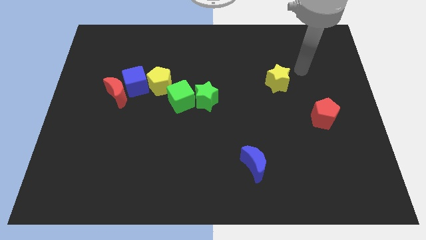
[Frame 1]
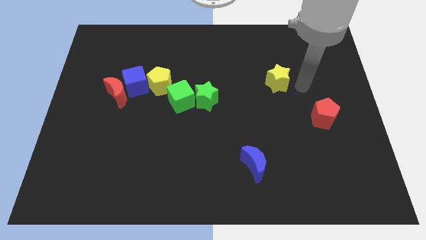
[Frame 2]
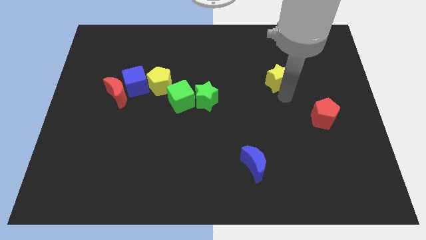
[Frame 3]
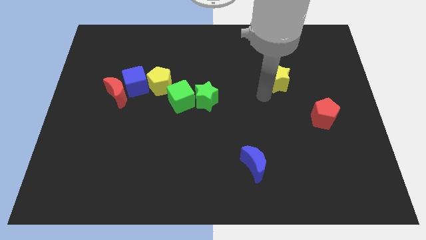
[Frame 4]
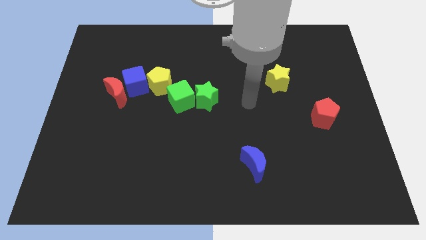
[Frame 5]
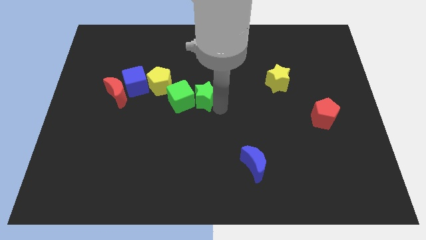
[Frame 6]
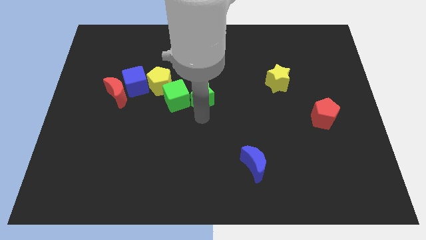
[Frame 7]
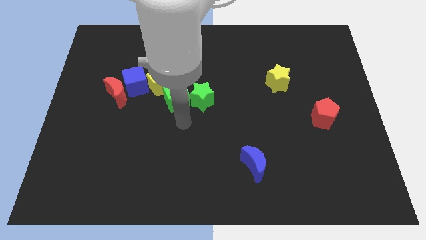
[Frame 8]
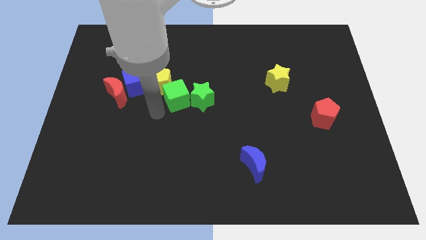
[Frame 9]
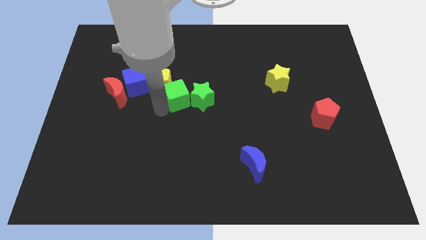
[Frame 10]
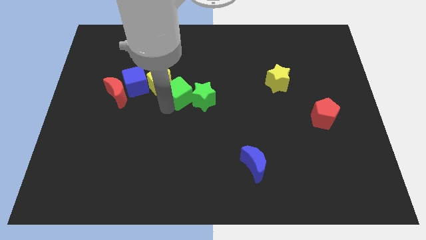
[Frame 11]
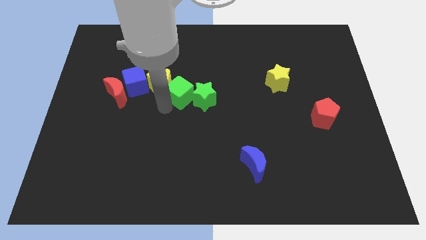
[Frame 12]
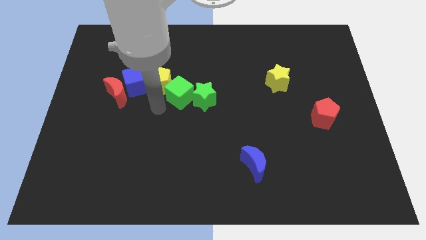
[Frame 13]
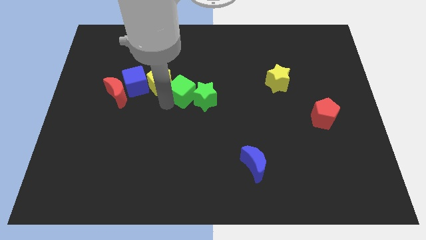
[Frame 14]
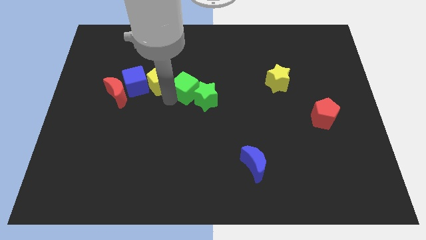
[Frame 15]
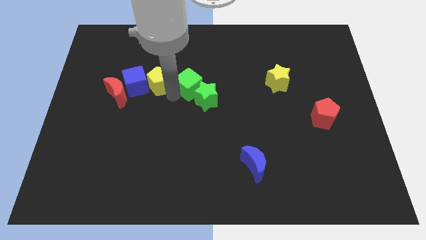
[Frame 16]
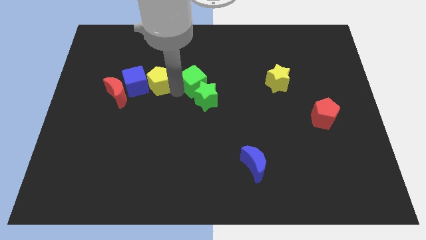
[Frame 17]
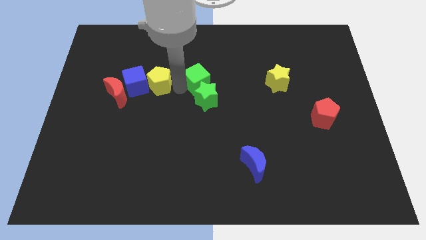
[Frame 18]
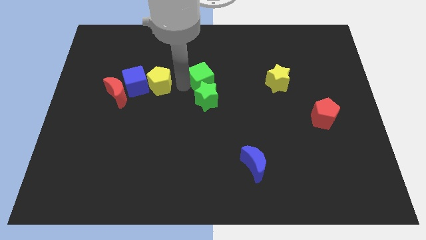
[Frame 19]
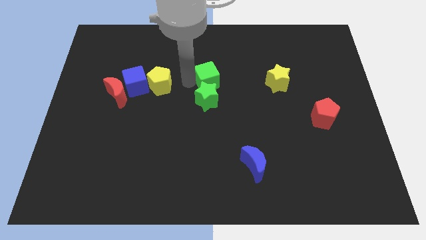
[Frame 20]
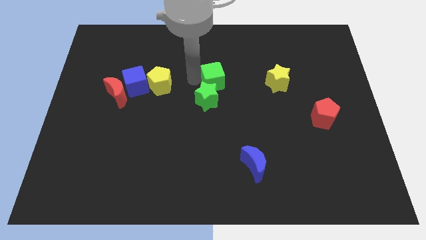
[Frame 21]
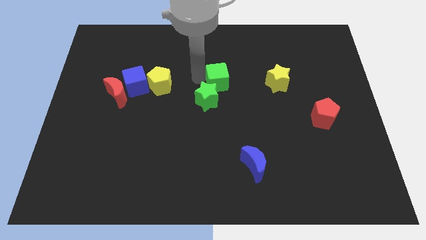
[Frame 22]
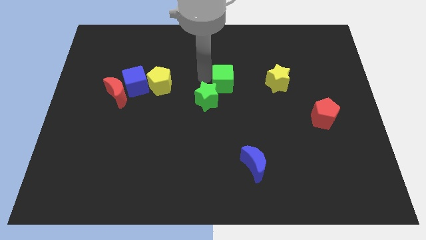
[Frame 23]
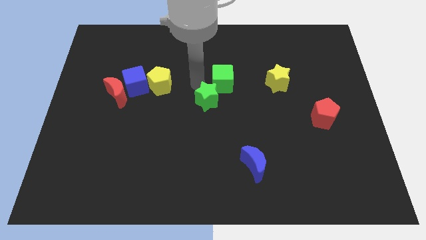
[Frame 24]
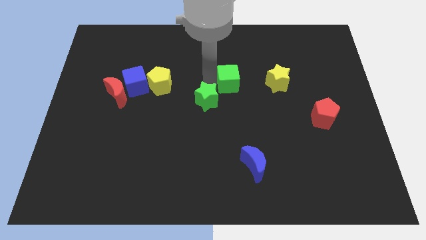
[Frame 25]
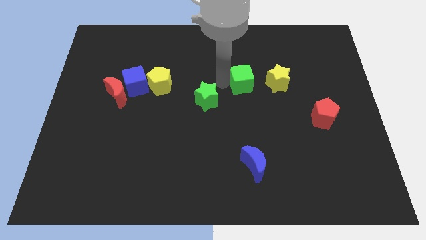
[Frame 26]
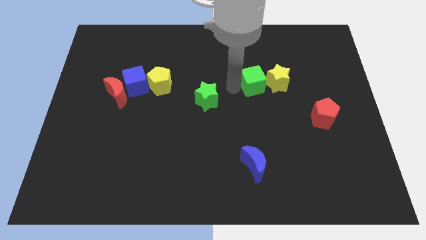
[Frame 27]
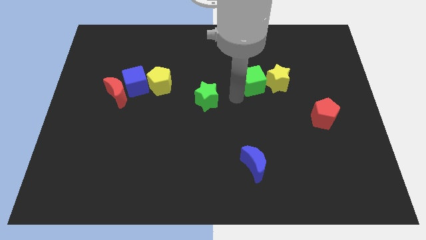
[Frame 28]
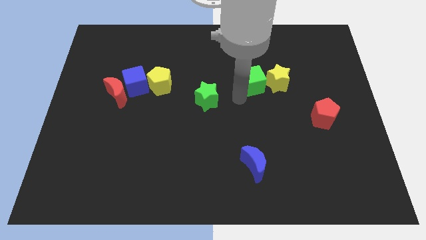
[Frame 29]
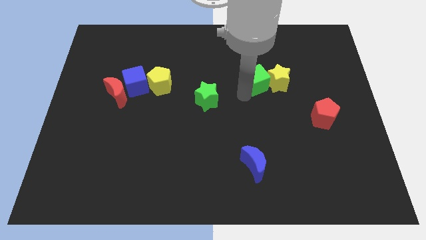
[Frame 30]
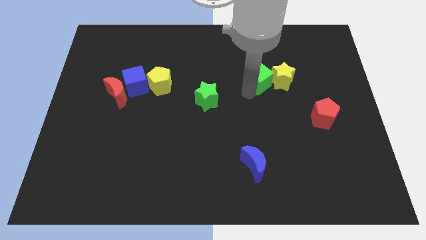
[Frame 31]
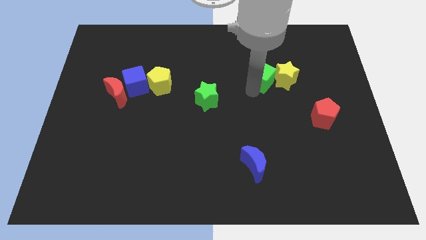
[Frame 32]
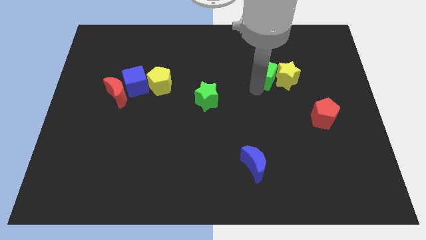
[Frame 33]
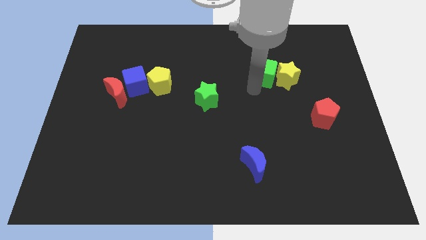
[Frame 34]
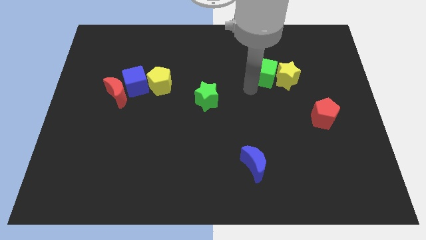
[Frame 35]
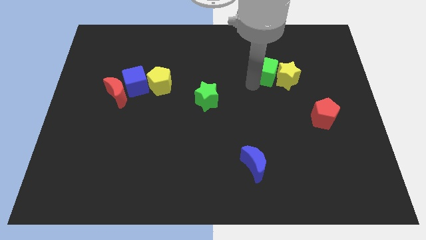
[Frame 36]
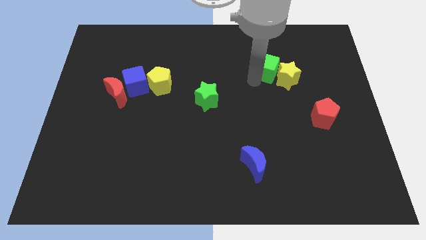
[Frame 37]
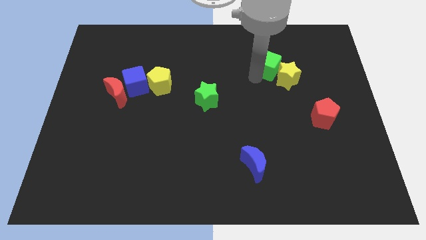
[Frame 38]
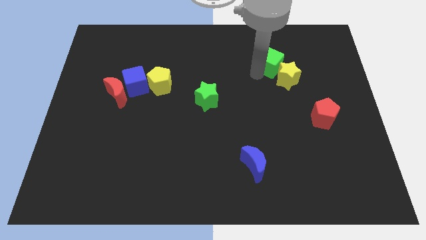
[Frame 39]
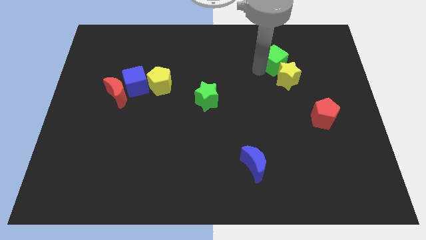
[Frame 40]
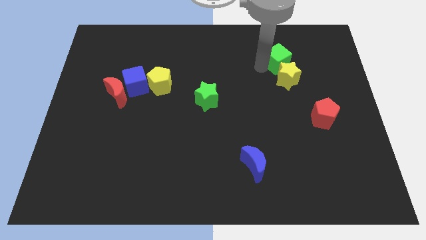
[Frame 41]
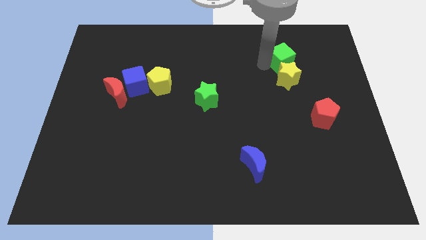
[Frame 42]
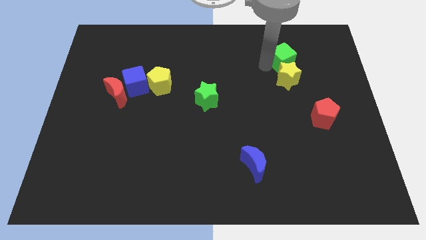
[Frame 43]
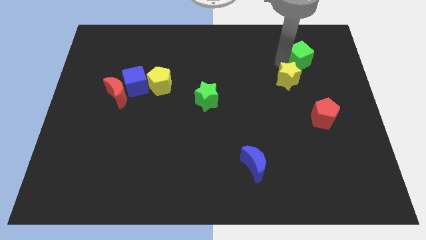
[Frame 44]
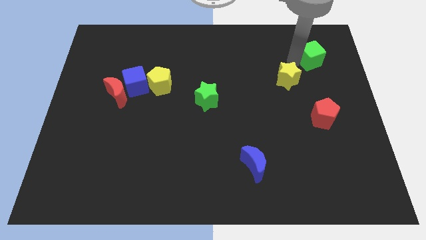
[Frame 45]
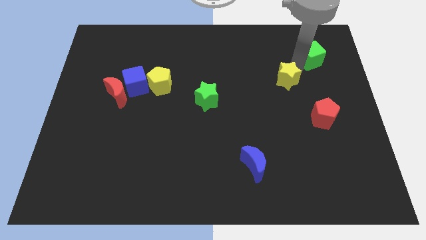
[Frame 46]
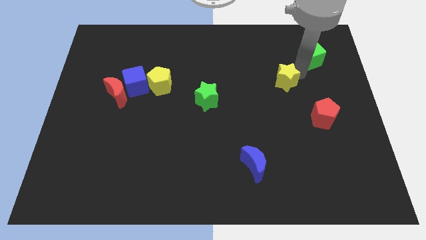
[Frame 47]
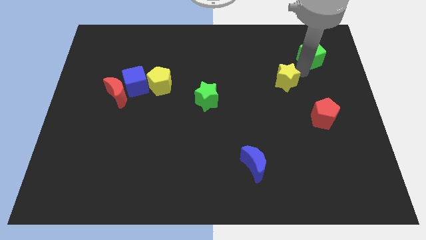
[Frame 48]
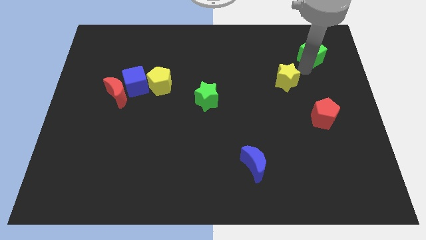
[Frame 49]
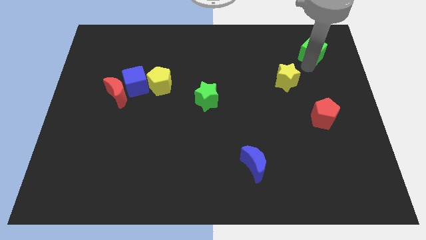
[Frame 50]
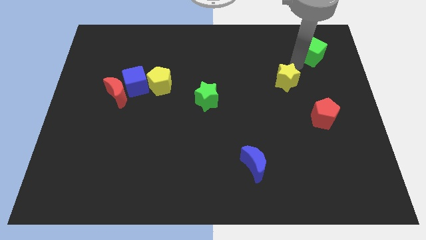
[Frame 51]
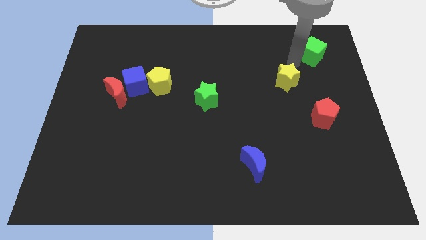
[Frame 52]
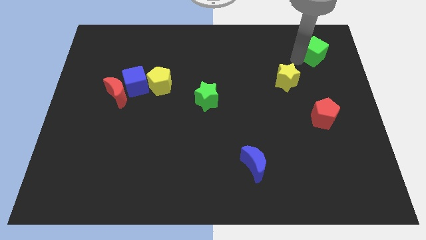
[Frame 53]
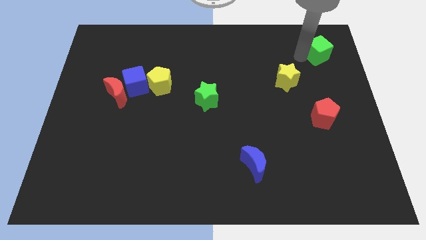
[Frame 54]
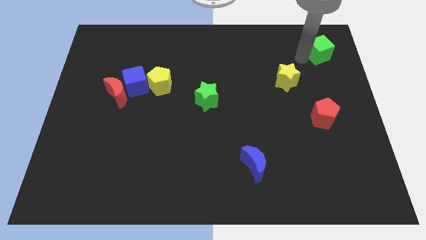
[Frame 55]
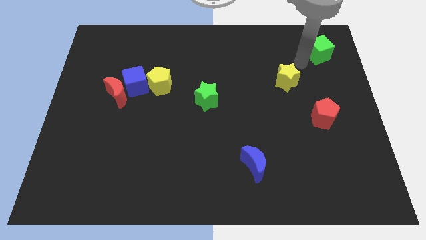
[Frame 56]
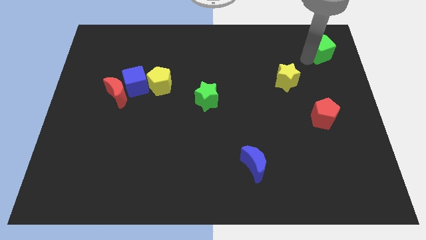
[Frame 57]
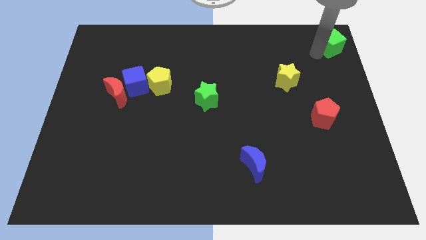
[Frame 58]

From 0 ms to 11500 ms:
put the green cube to the upper right corner

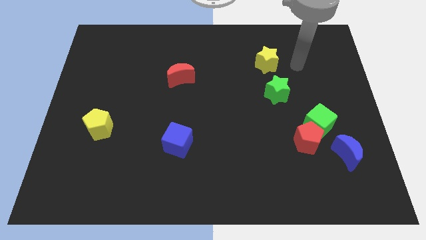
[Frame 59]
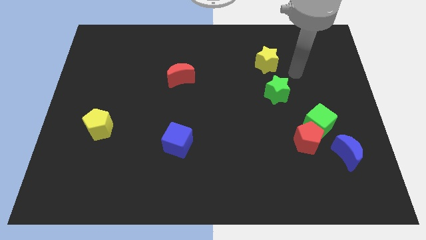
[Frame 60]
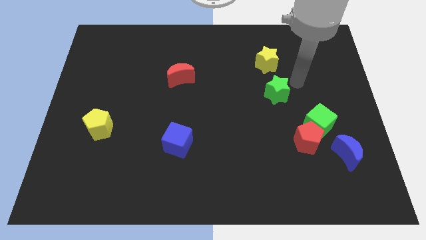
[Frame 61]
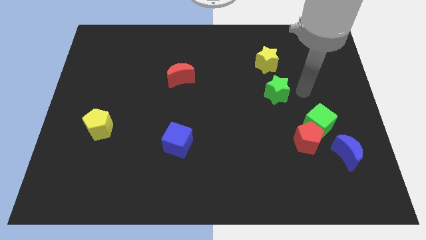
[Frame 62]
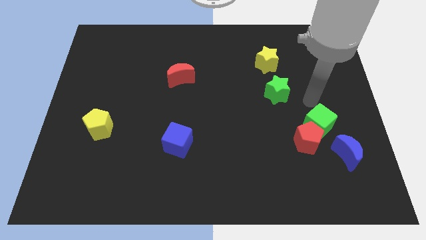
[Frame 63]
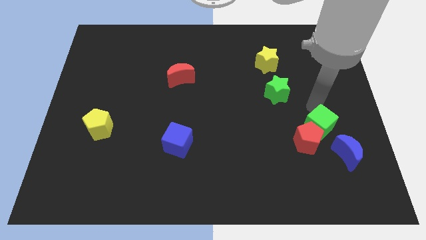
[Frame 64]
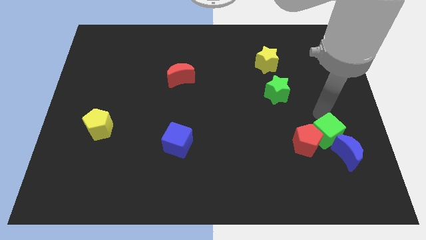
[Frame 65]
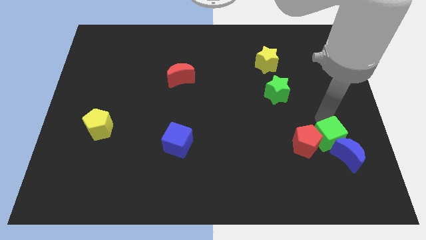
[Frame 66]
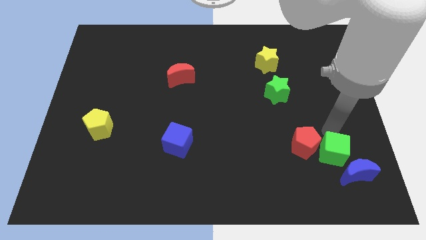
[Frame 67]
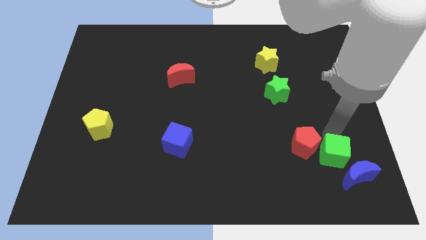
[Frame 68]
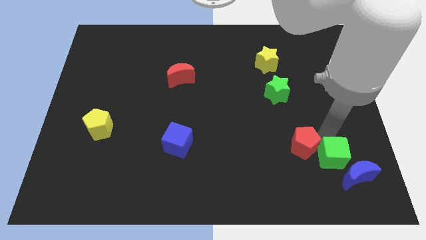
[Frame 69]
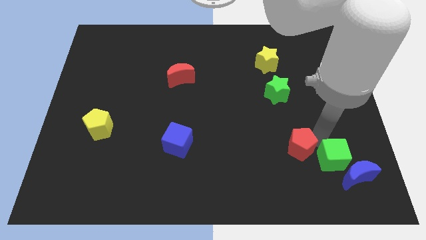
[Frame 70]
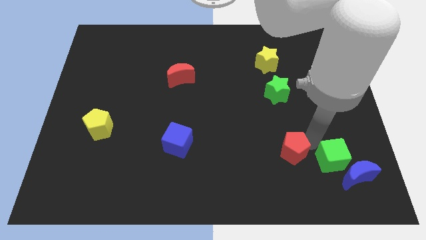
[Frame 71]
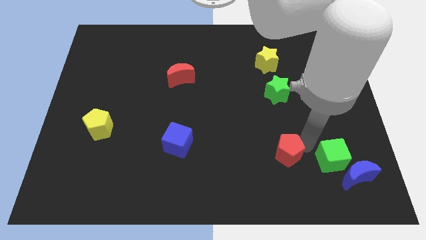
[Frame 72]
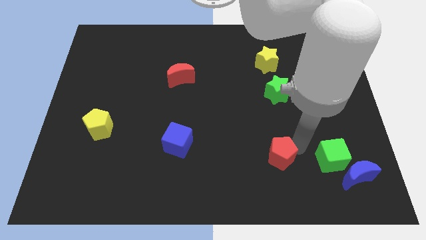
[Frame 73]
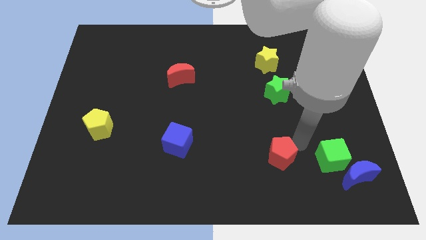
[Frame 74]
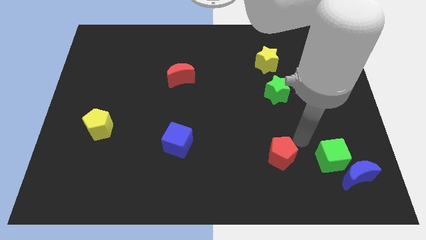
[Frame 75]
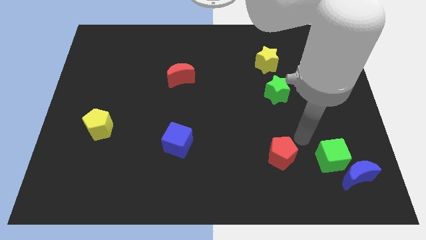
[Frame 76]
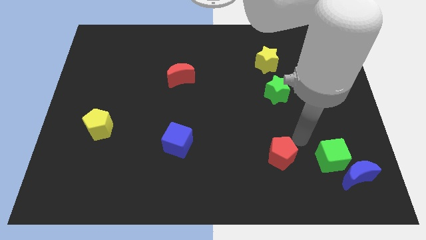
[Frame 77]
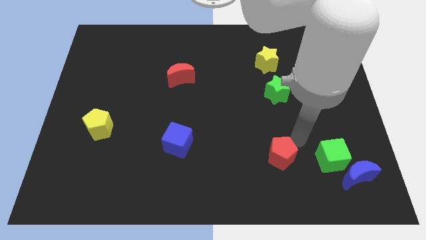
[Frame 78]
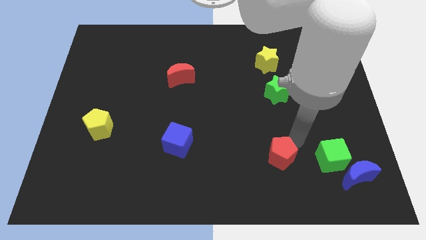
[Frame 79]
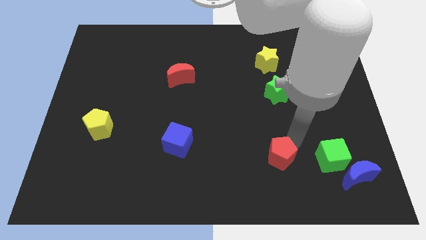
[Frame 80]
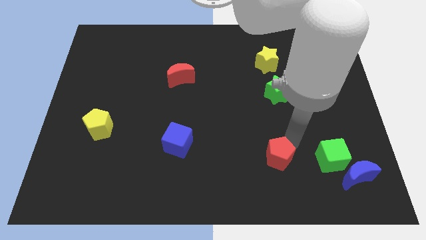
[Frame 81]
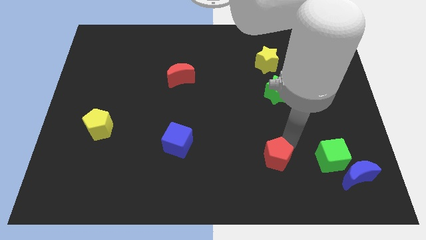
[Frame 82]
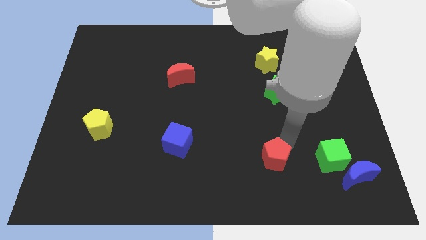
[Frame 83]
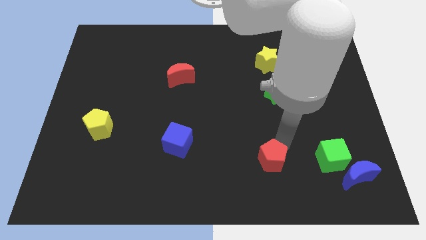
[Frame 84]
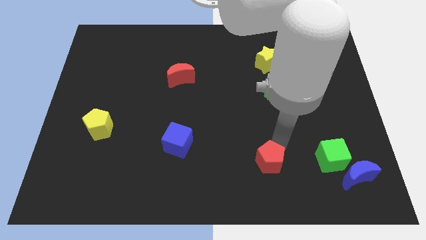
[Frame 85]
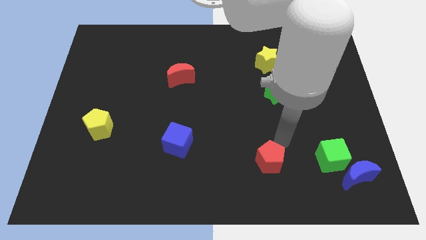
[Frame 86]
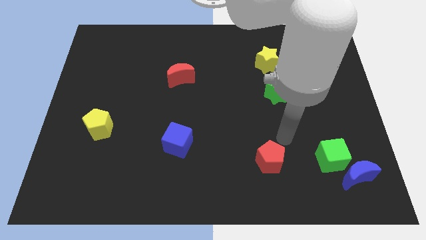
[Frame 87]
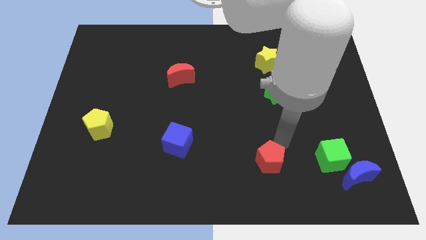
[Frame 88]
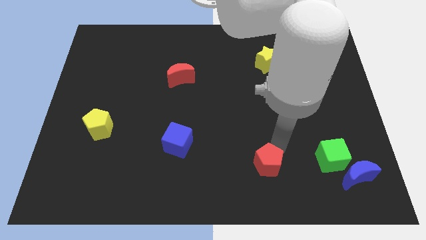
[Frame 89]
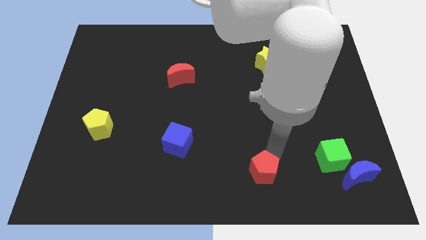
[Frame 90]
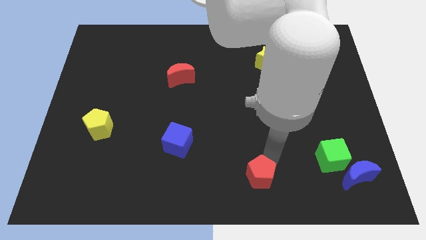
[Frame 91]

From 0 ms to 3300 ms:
move the red pentagon to the bottom
